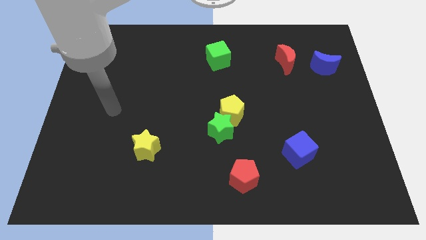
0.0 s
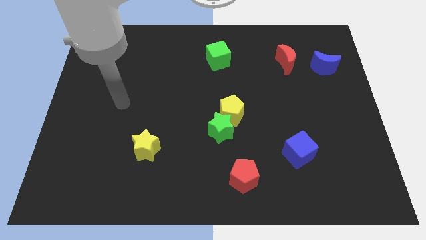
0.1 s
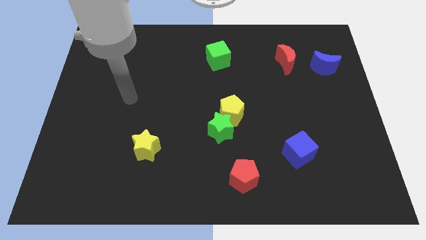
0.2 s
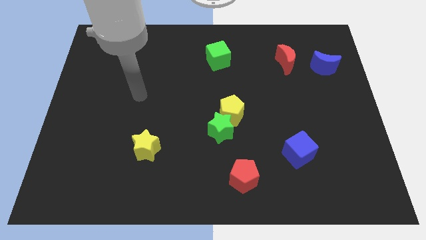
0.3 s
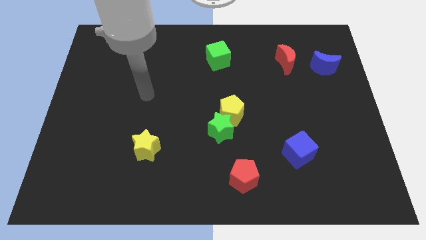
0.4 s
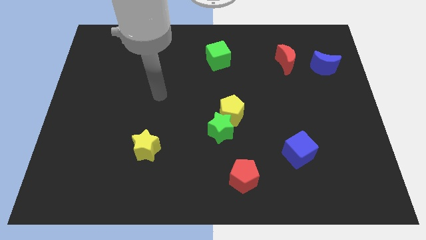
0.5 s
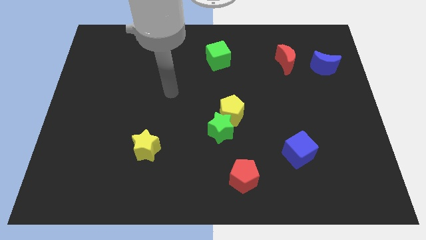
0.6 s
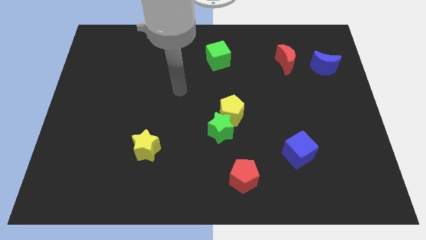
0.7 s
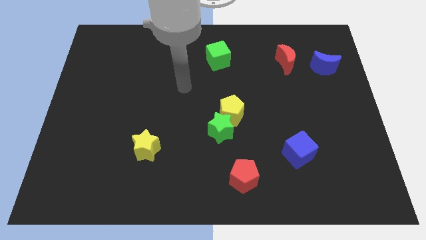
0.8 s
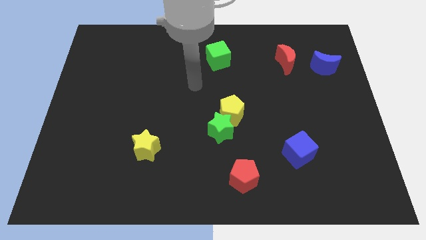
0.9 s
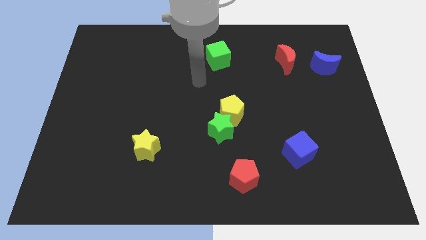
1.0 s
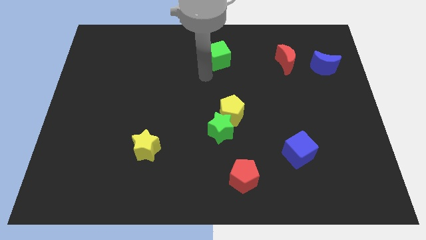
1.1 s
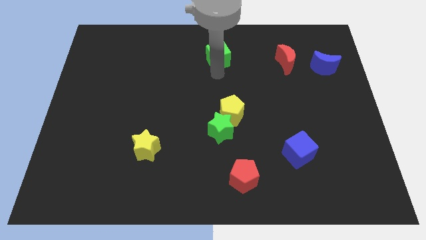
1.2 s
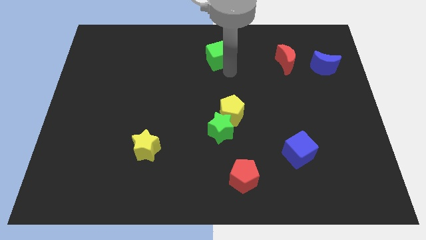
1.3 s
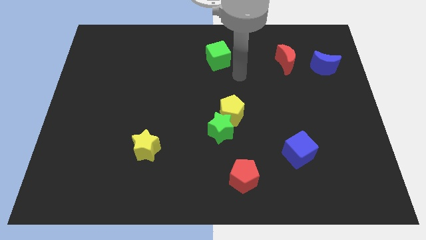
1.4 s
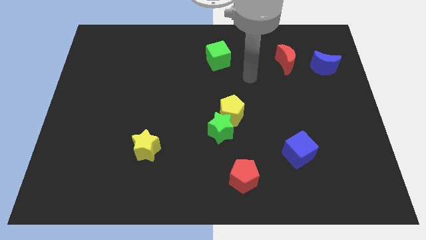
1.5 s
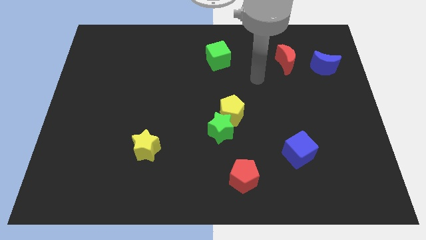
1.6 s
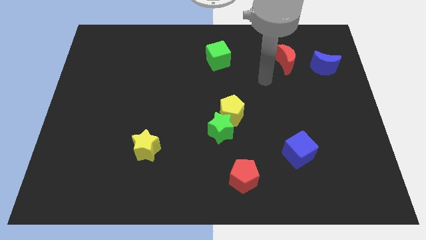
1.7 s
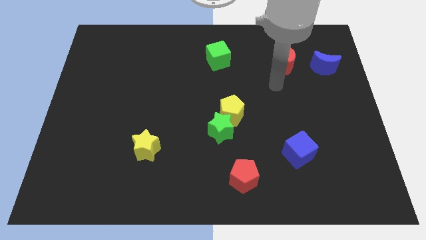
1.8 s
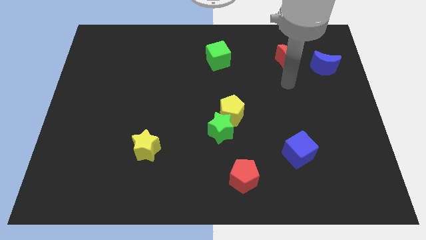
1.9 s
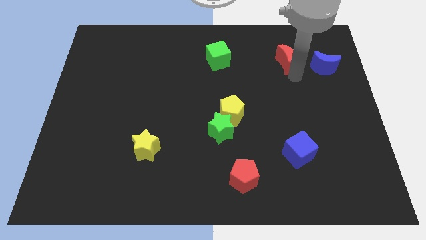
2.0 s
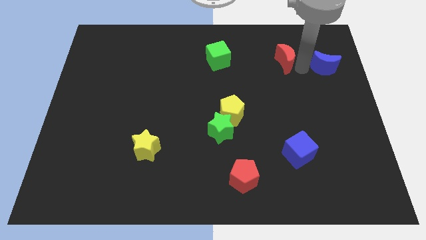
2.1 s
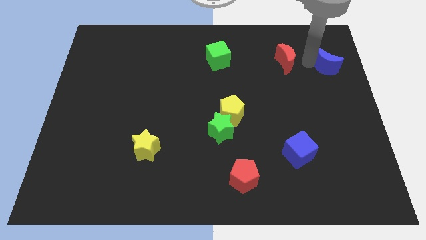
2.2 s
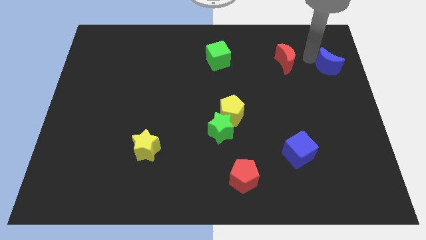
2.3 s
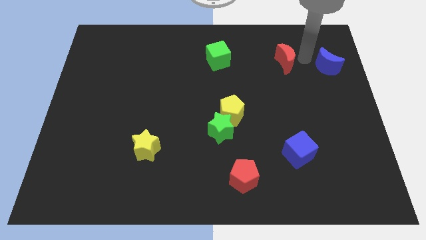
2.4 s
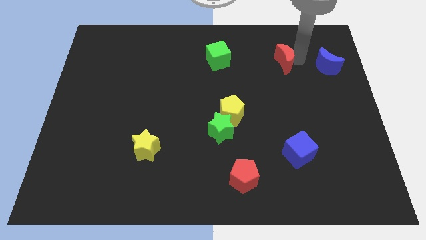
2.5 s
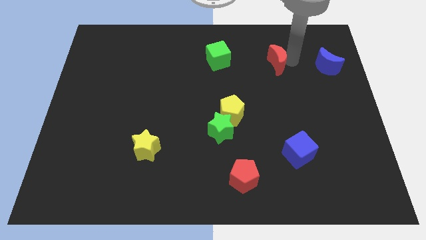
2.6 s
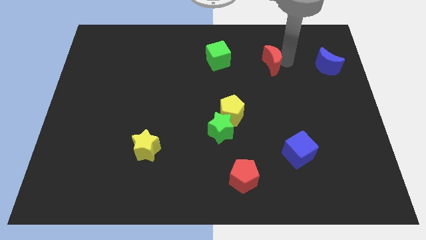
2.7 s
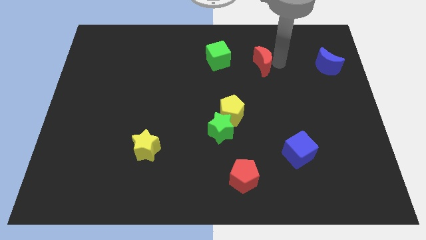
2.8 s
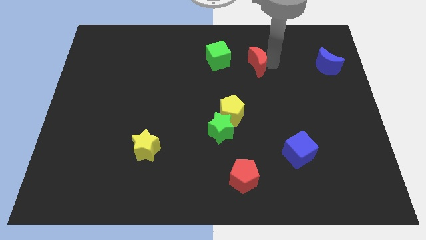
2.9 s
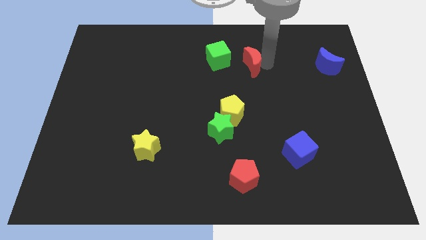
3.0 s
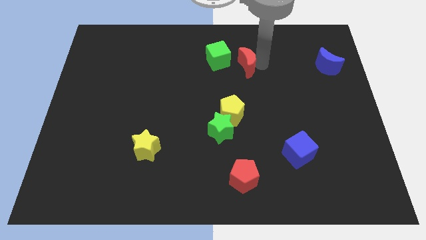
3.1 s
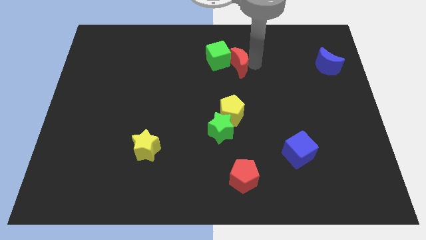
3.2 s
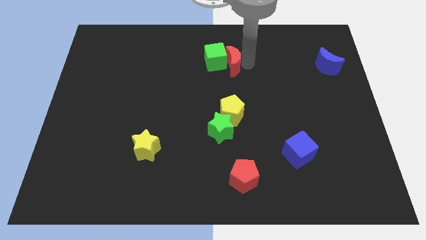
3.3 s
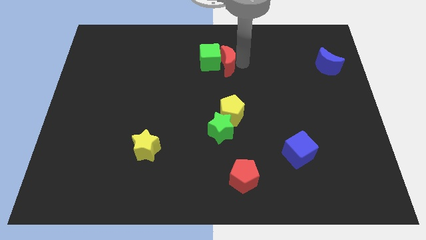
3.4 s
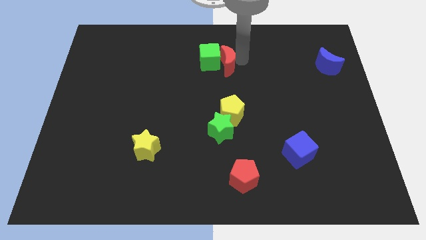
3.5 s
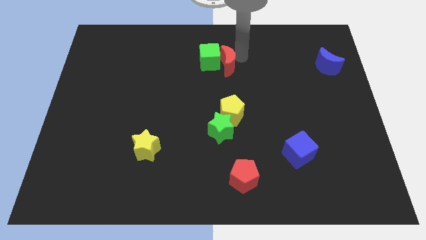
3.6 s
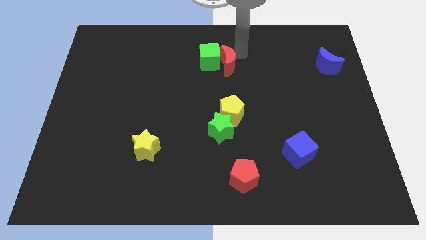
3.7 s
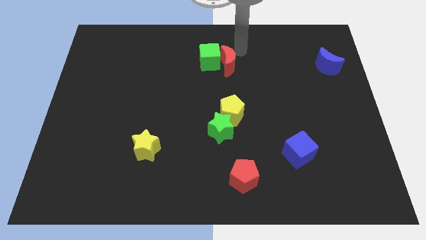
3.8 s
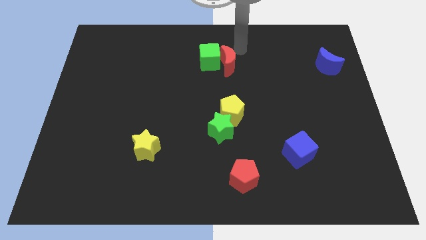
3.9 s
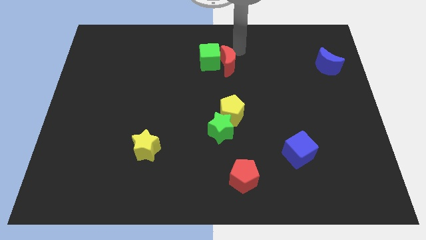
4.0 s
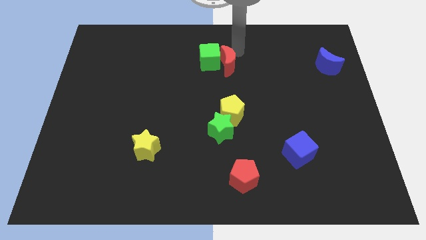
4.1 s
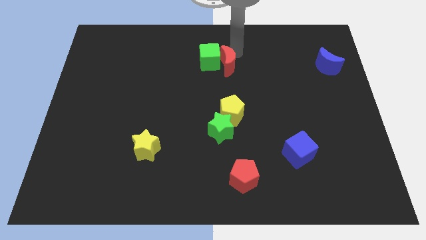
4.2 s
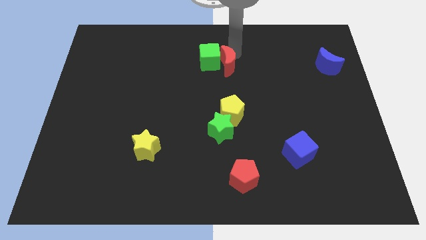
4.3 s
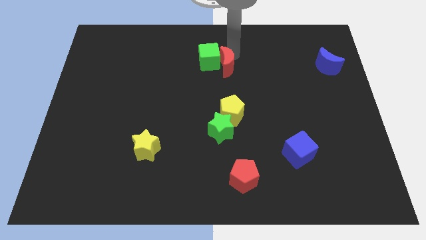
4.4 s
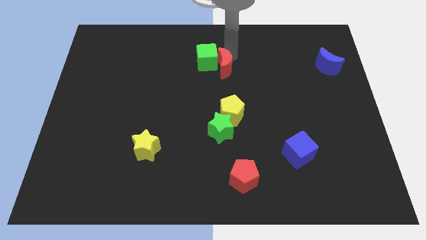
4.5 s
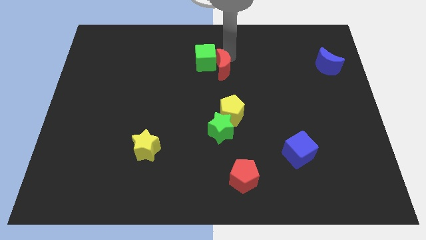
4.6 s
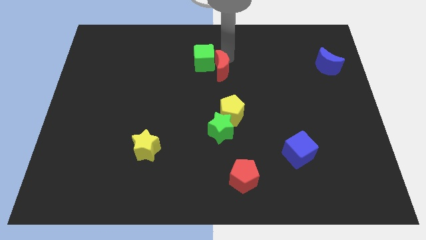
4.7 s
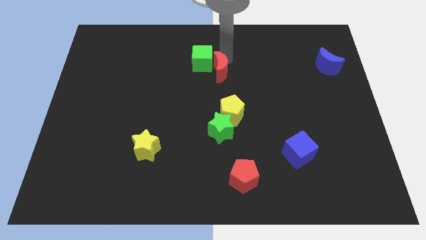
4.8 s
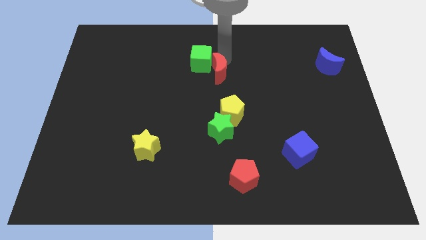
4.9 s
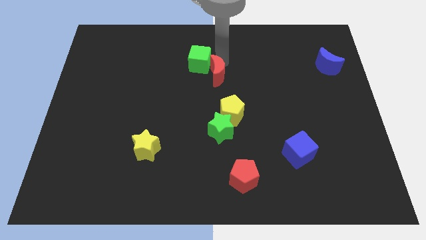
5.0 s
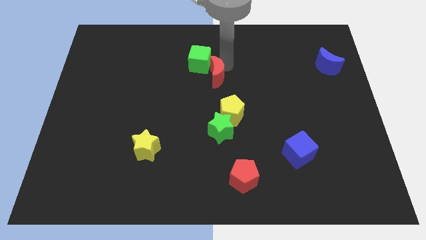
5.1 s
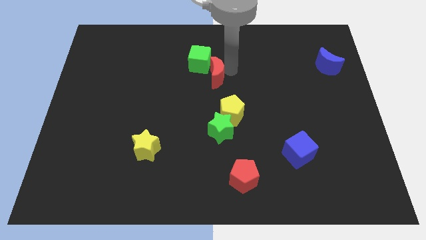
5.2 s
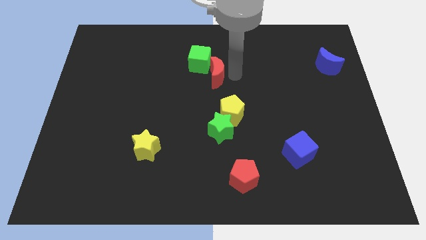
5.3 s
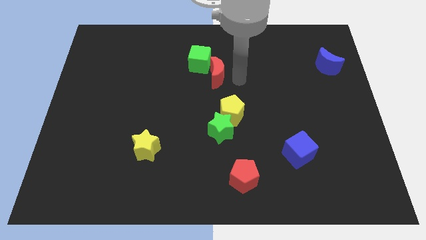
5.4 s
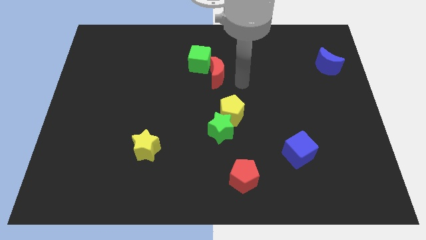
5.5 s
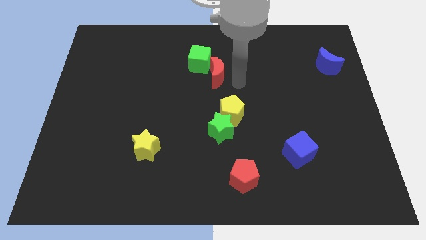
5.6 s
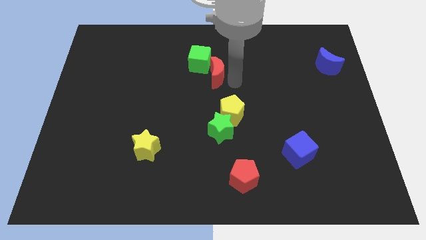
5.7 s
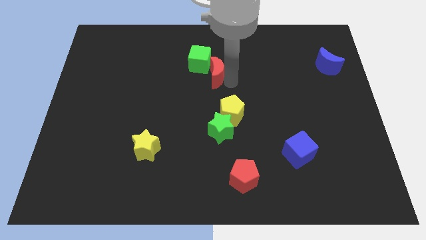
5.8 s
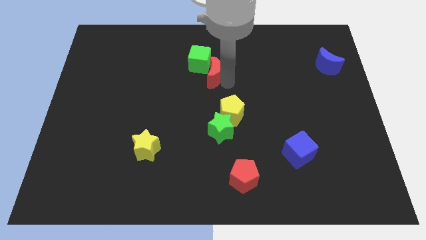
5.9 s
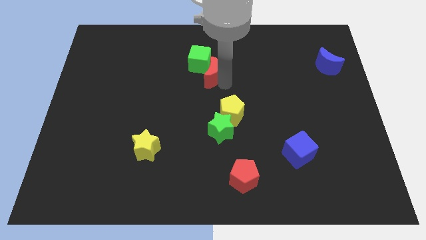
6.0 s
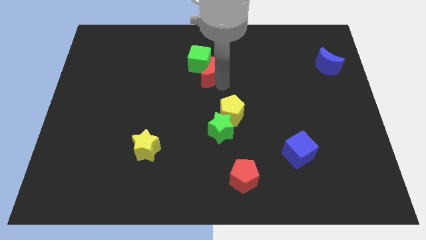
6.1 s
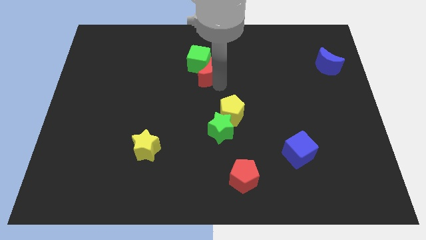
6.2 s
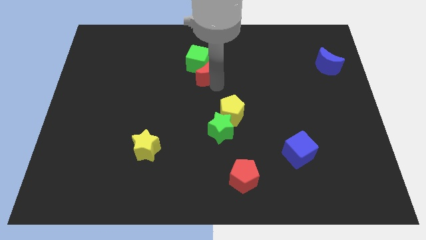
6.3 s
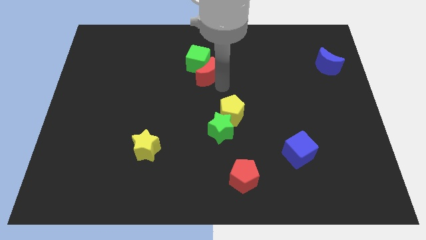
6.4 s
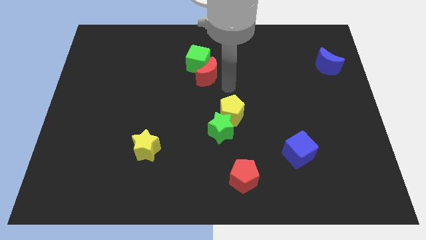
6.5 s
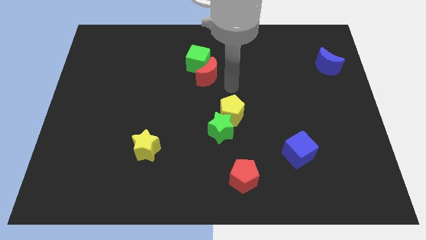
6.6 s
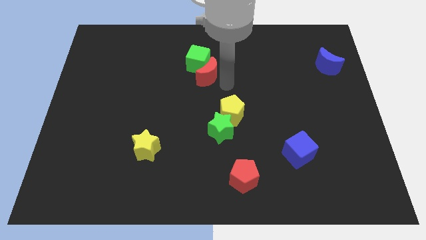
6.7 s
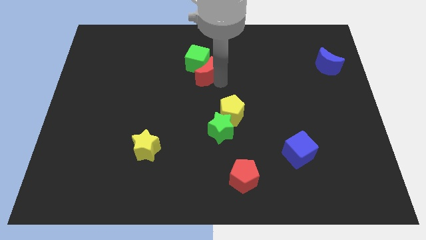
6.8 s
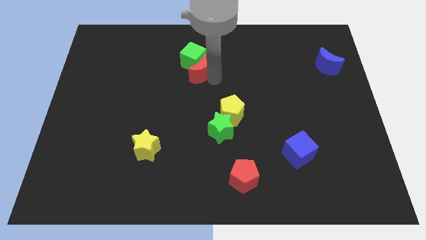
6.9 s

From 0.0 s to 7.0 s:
push the red moon left

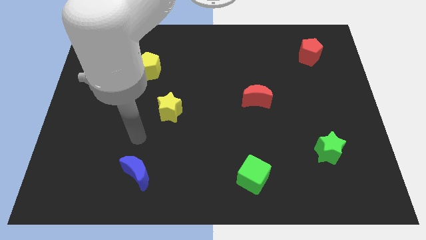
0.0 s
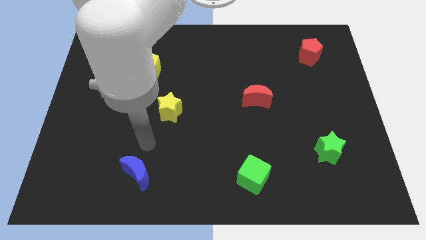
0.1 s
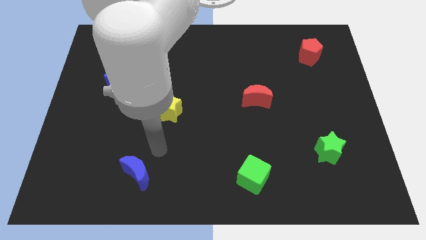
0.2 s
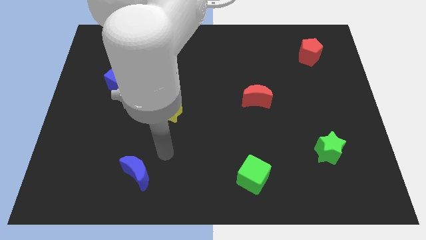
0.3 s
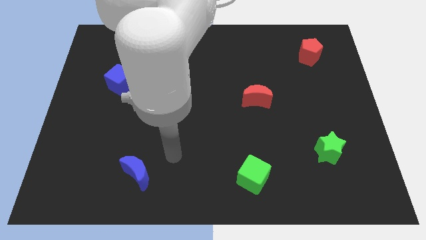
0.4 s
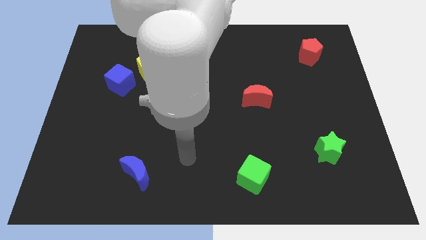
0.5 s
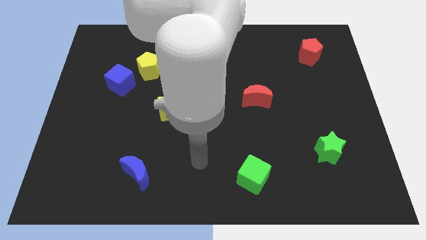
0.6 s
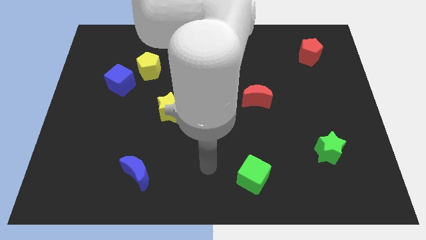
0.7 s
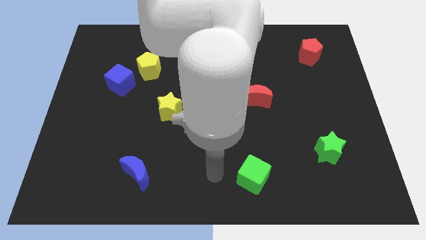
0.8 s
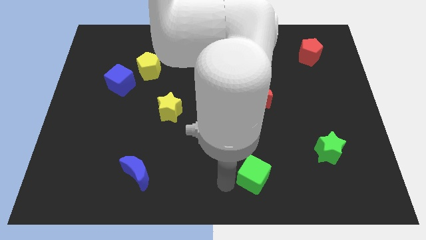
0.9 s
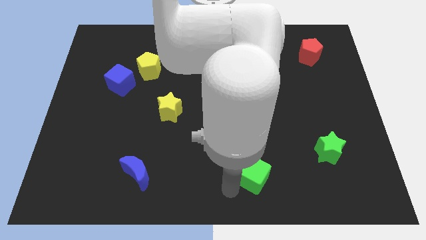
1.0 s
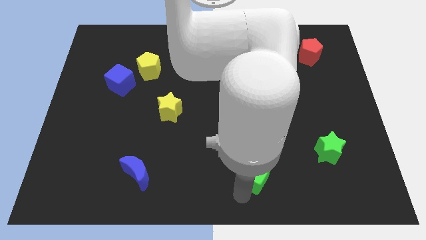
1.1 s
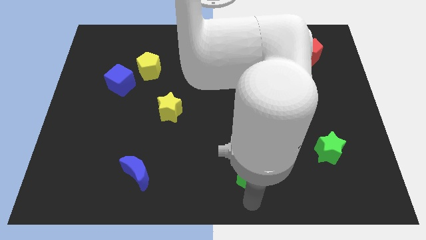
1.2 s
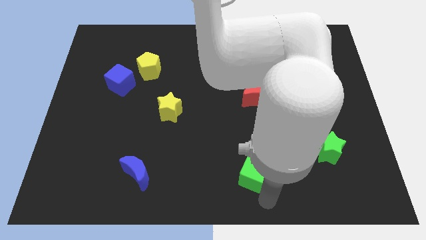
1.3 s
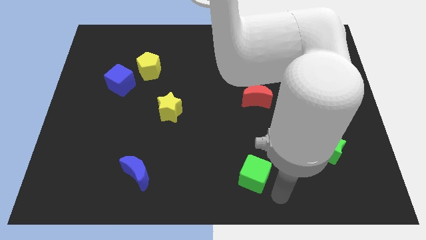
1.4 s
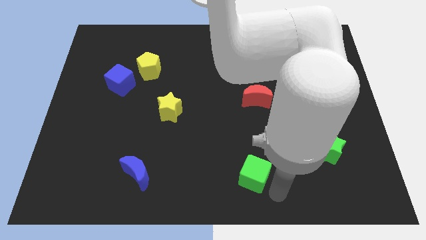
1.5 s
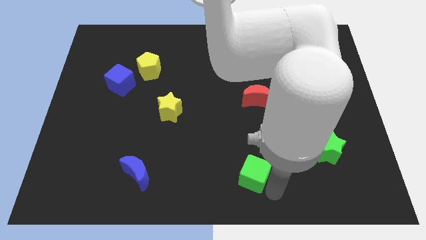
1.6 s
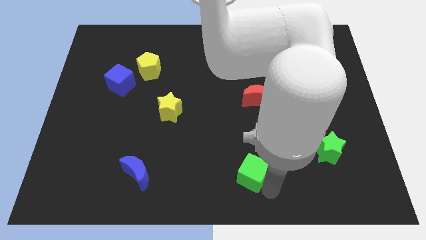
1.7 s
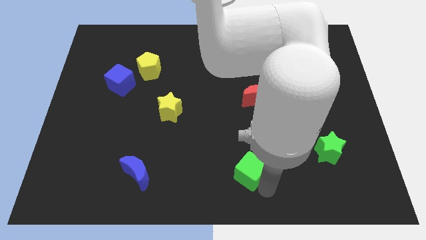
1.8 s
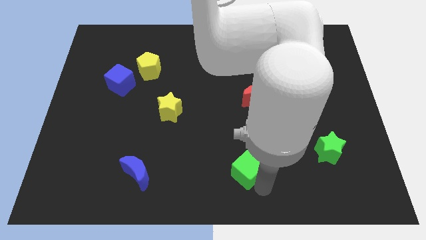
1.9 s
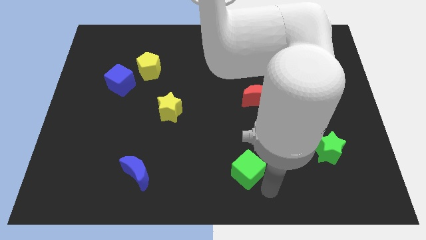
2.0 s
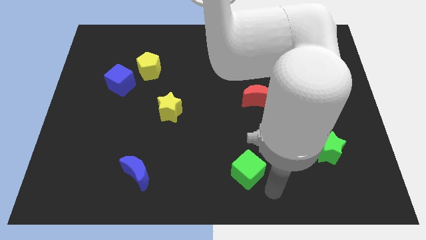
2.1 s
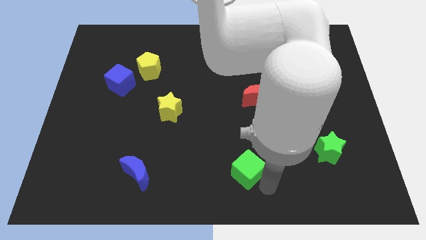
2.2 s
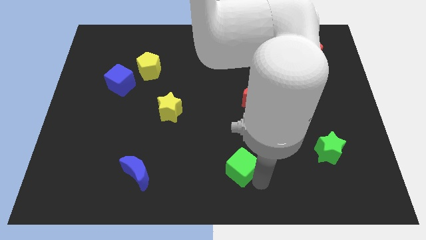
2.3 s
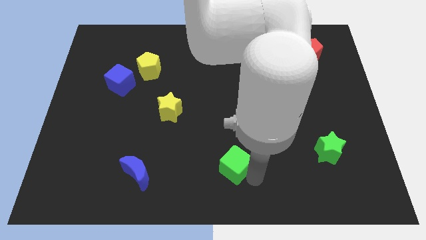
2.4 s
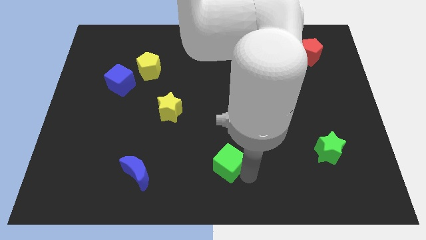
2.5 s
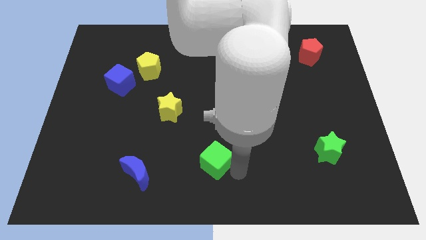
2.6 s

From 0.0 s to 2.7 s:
push the green cube upwards and to the left a little
